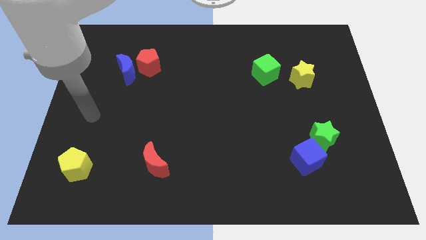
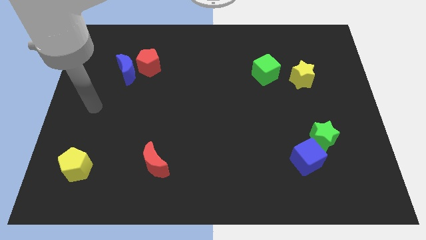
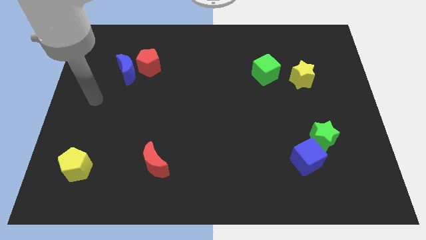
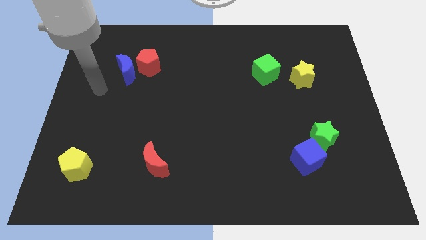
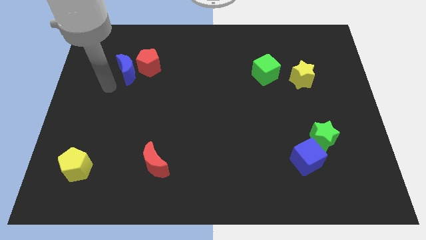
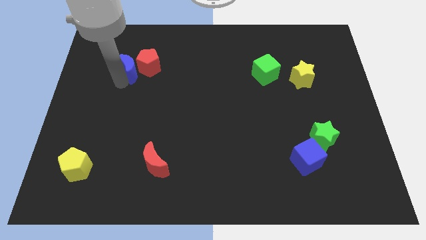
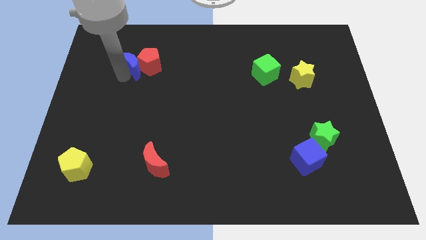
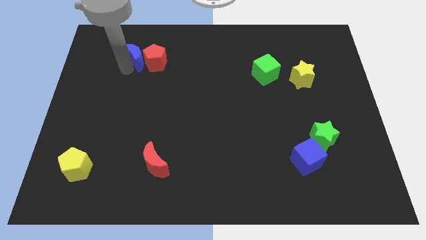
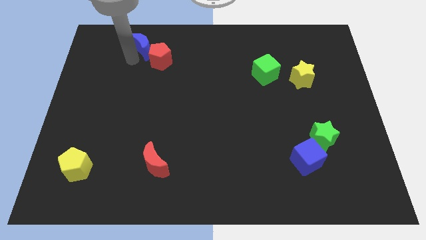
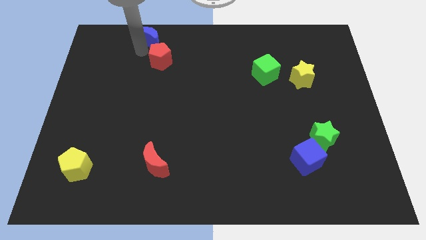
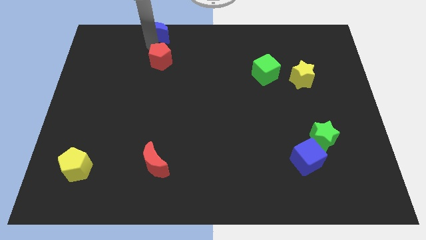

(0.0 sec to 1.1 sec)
pull the red pentagon apart from the blue moon

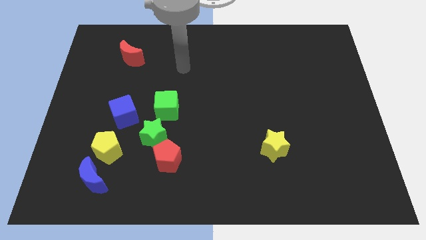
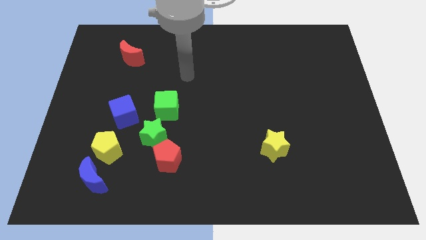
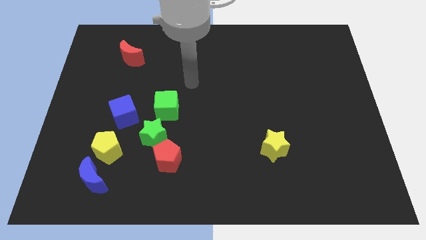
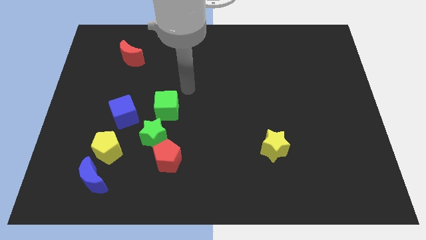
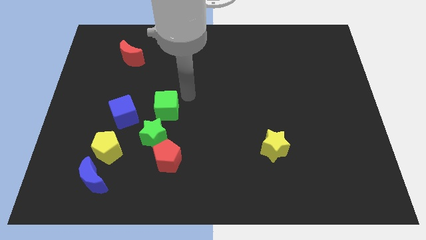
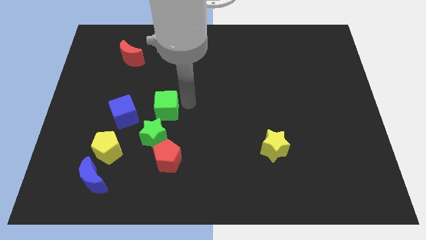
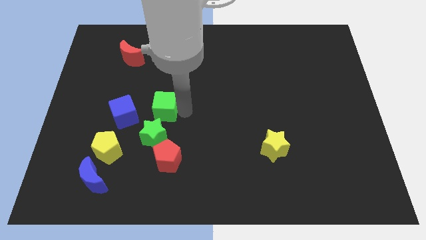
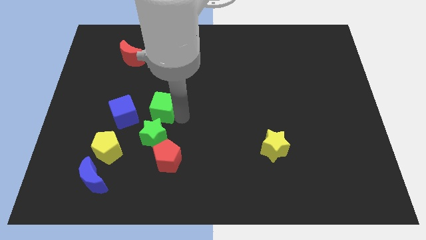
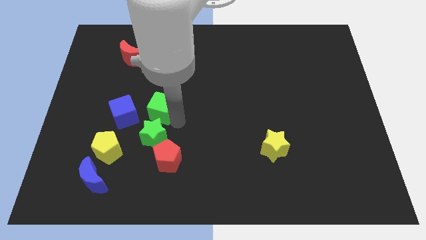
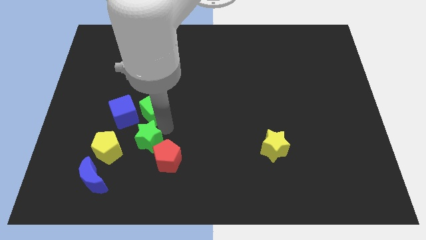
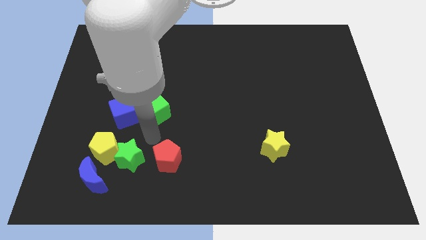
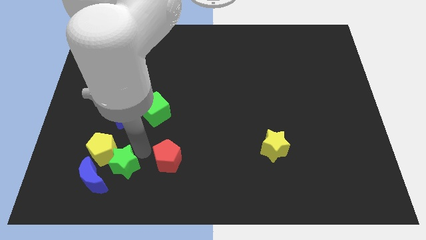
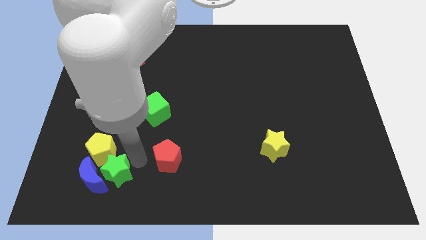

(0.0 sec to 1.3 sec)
pull the red pentagon apart from the green star

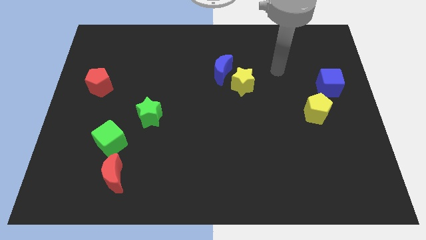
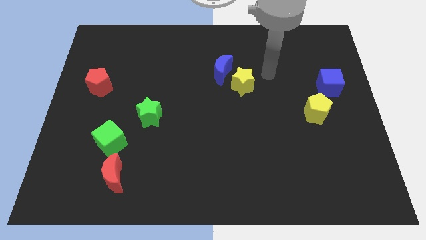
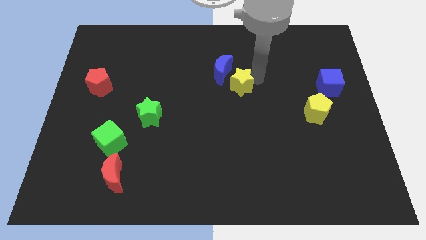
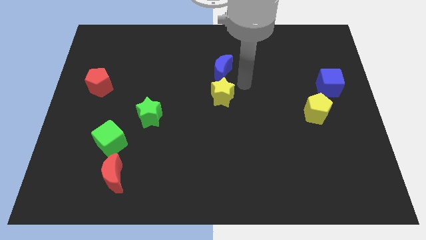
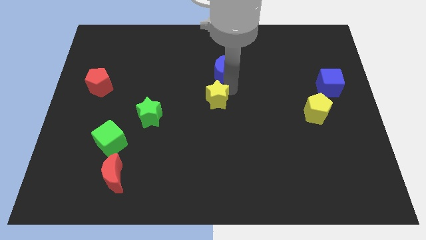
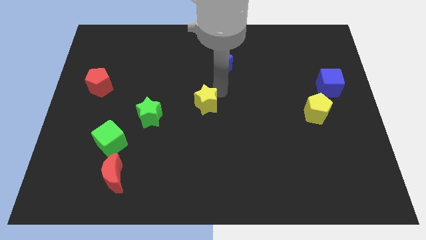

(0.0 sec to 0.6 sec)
separate the blue moon from the yellow star

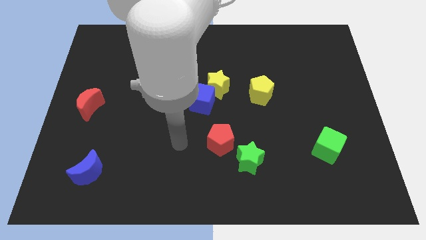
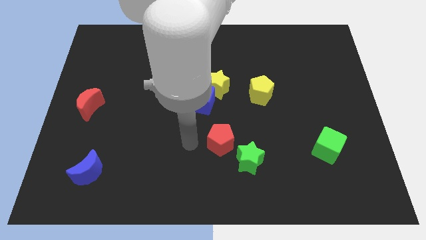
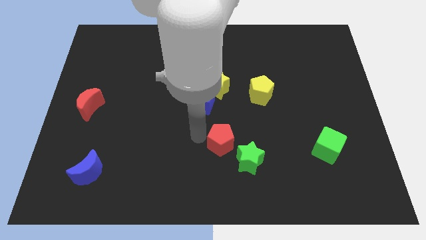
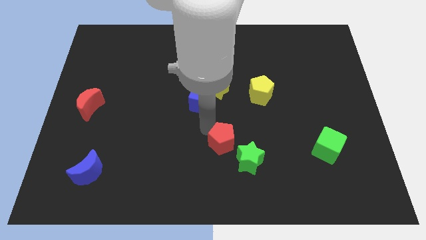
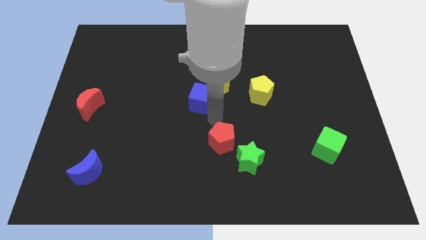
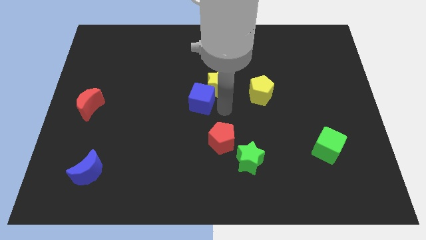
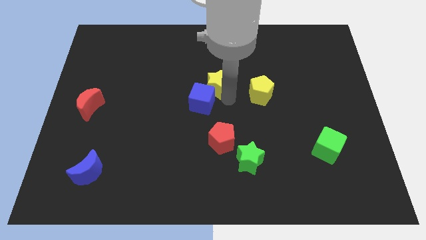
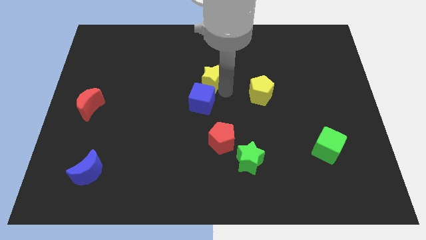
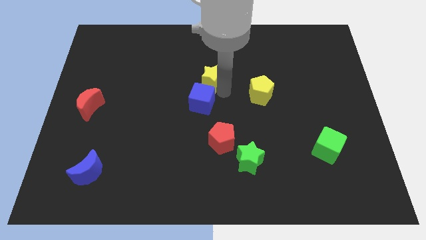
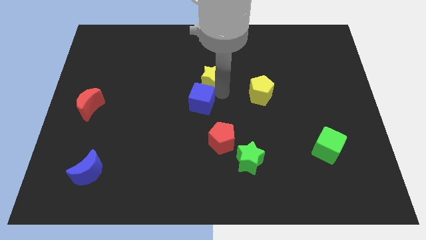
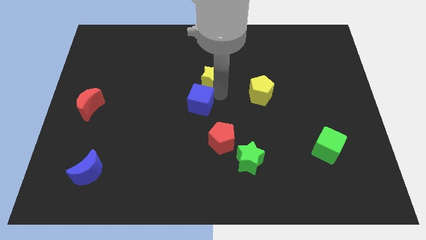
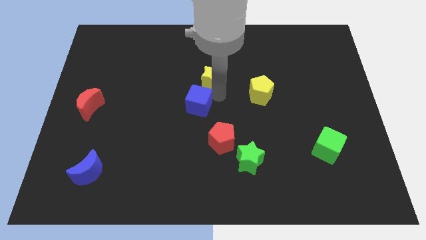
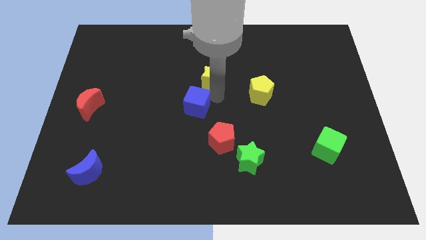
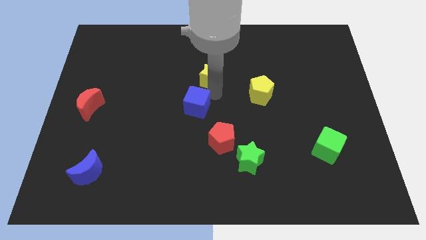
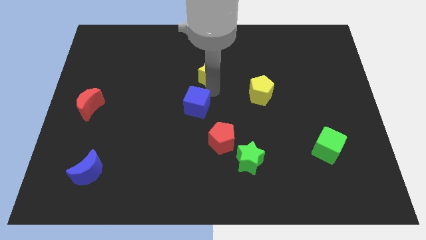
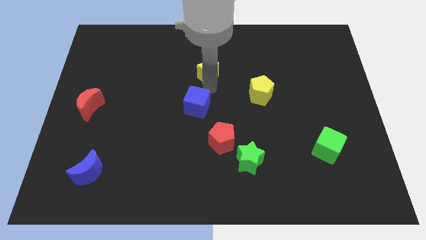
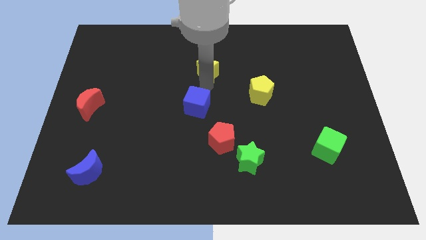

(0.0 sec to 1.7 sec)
pull the blue cube apart from the yellow star

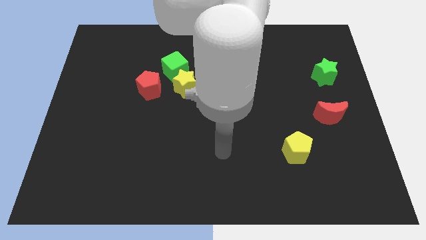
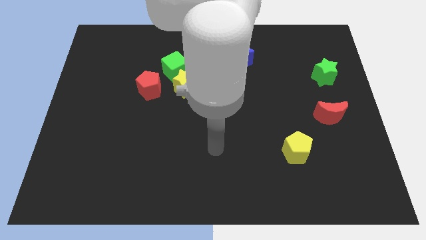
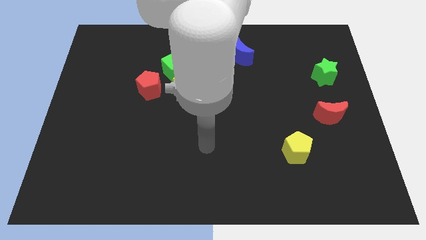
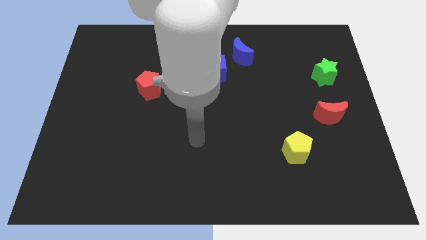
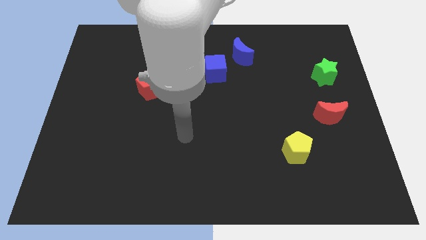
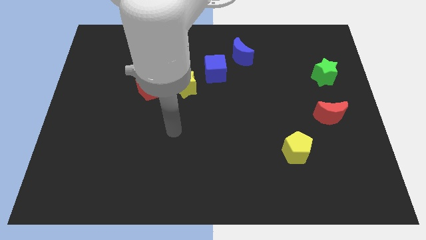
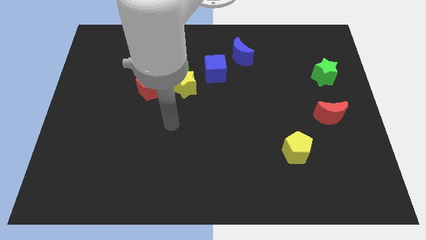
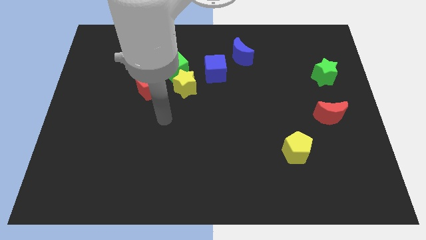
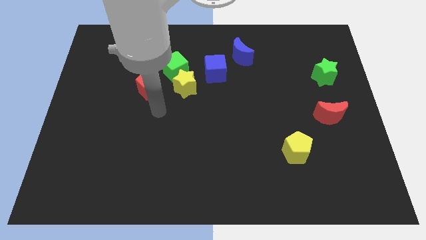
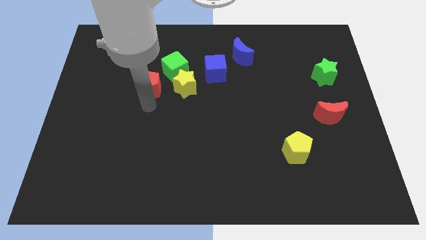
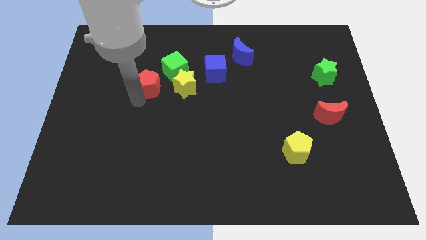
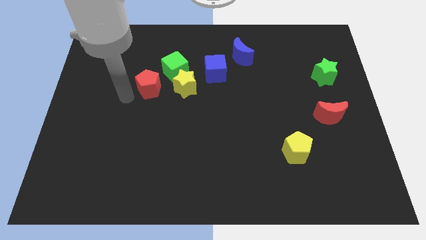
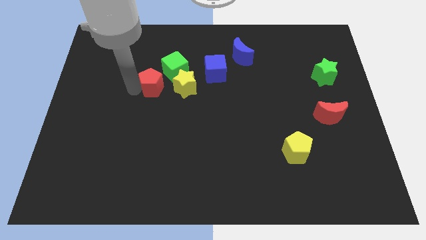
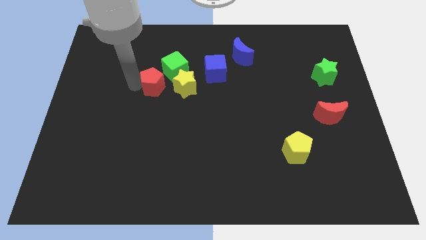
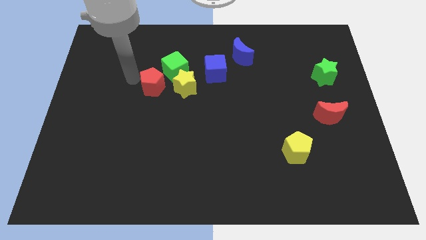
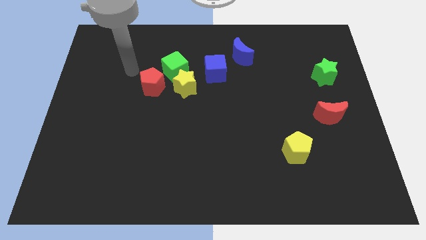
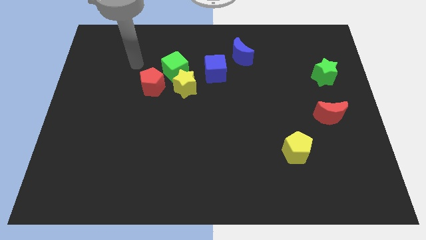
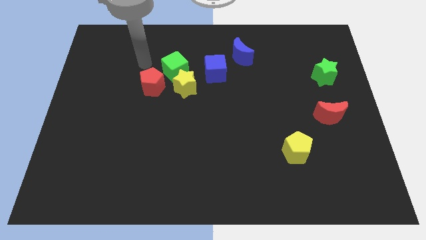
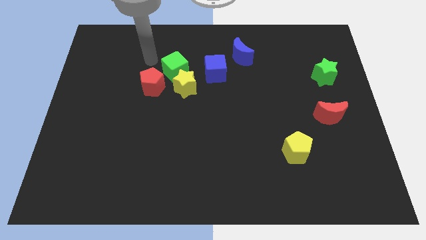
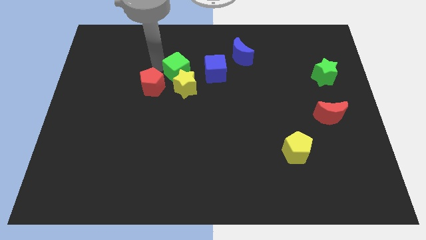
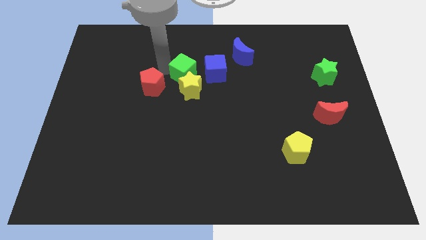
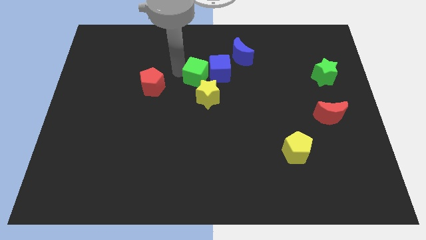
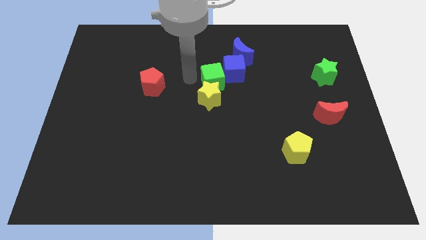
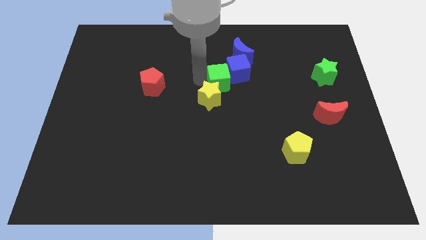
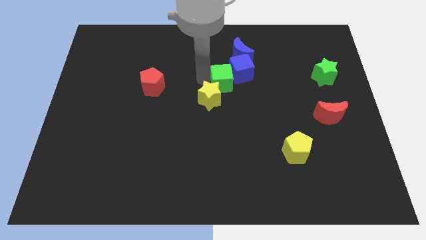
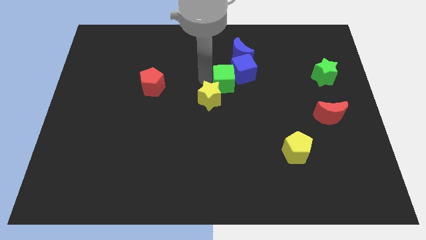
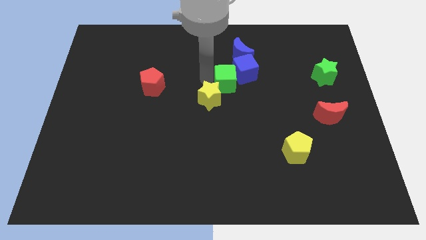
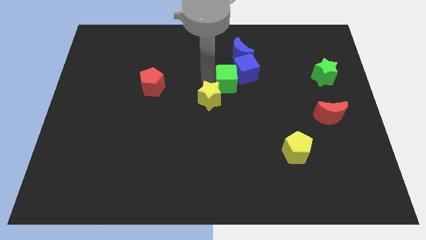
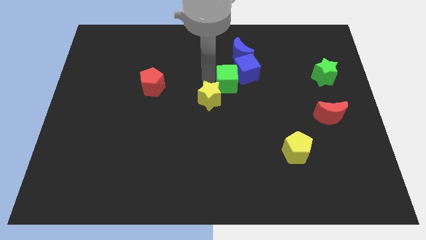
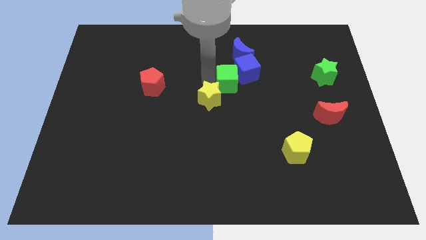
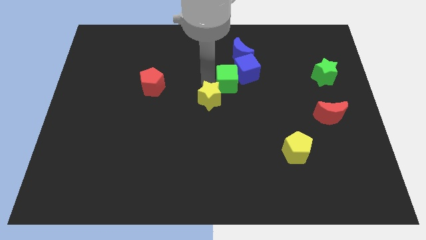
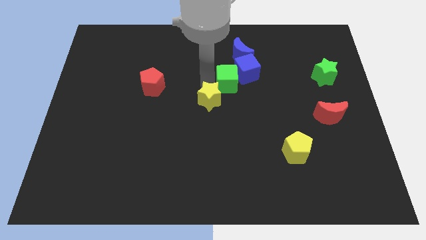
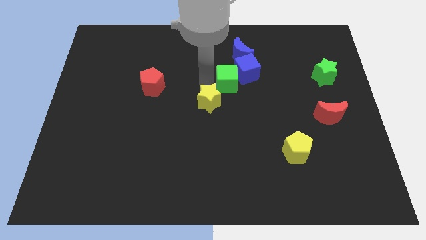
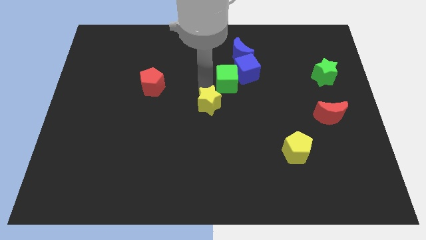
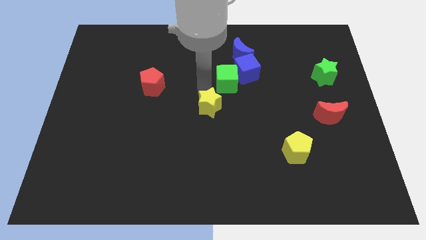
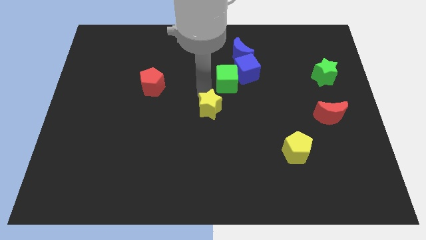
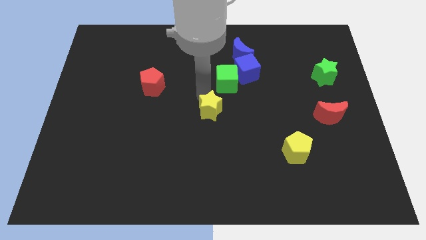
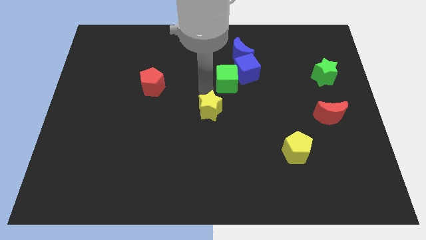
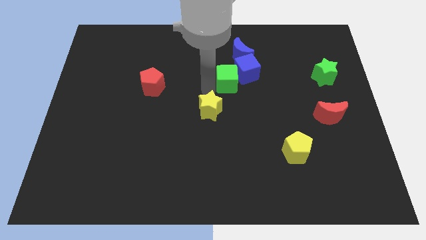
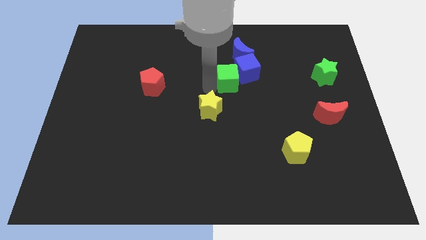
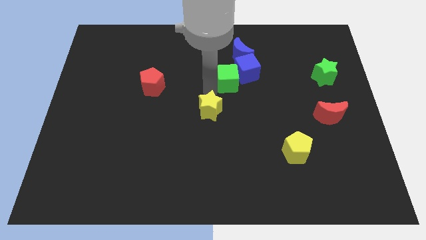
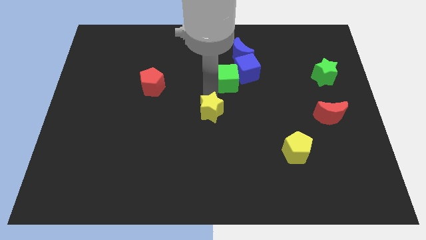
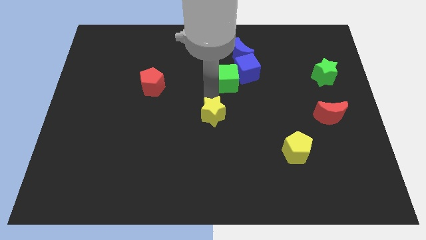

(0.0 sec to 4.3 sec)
pull the yellow star apart from the green cube, blue cube, and red pentagon

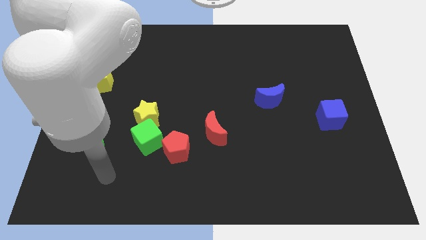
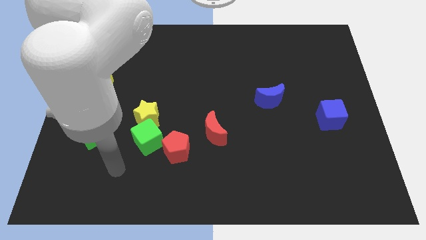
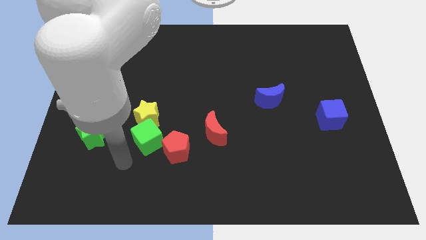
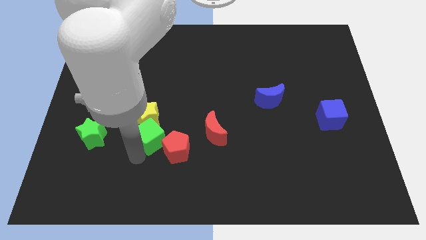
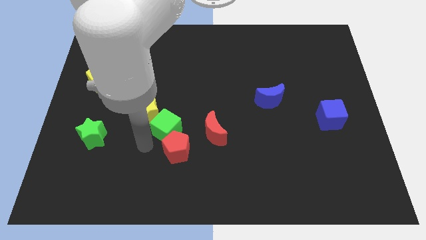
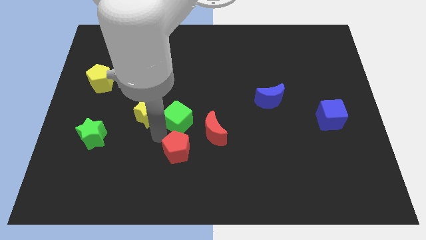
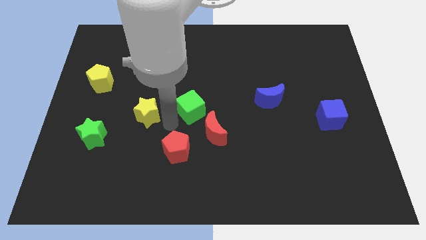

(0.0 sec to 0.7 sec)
separate the yellow star from the green cube
